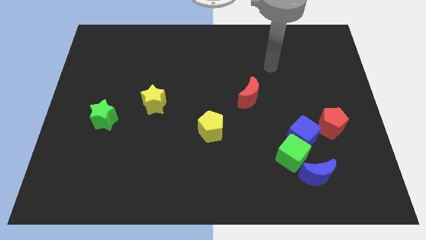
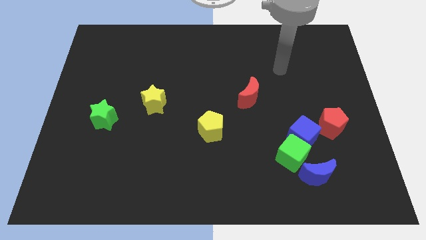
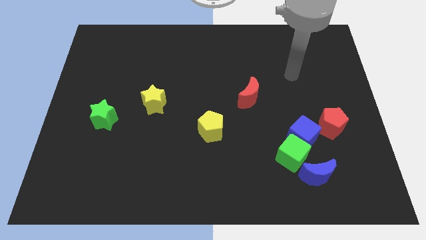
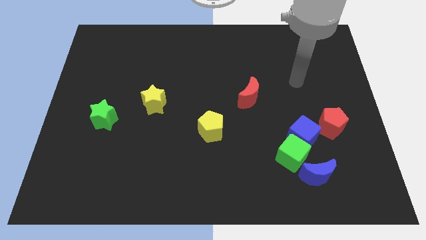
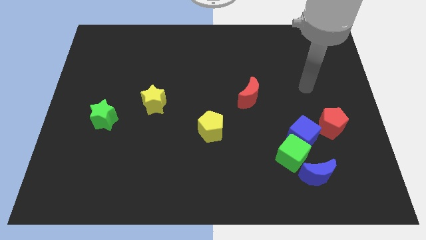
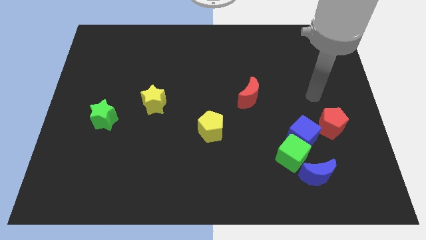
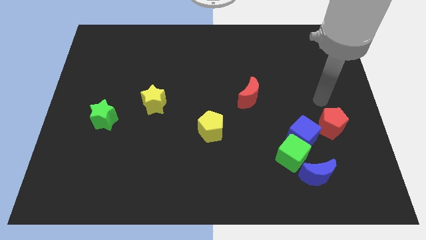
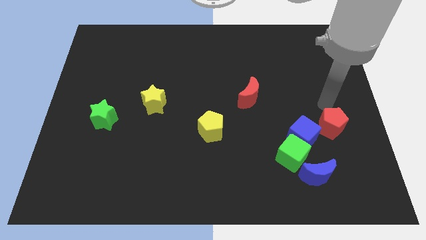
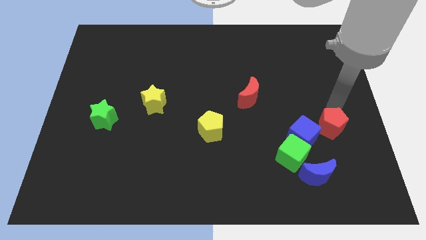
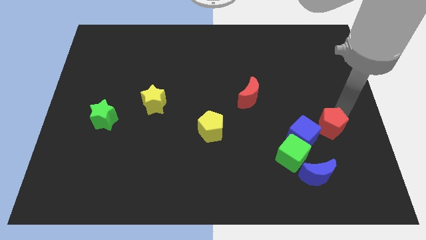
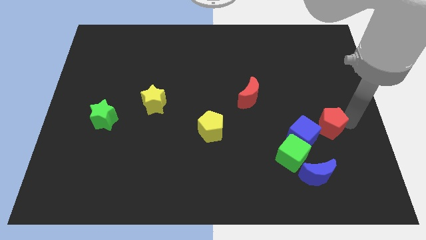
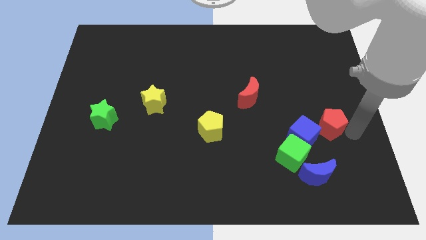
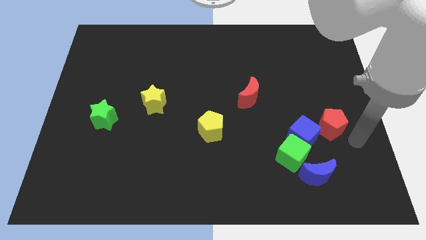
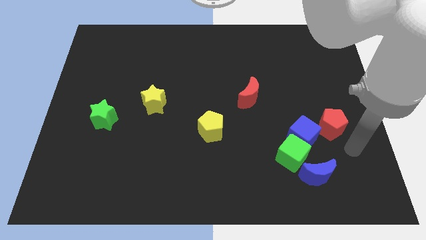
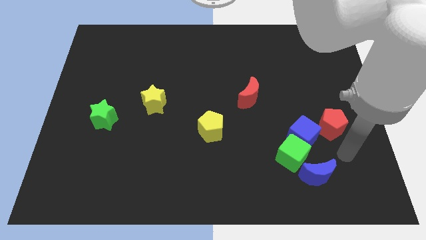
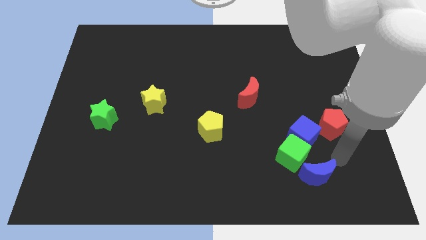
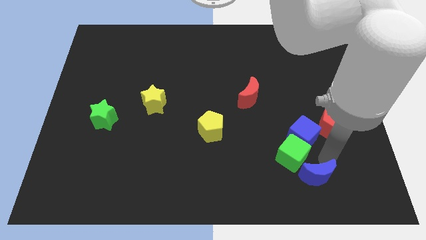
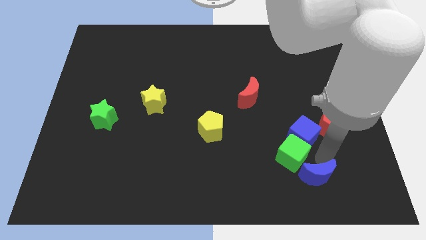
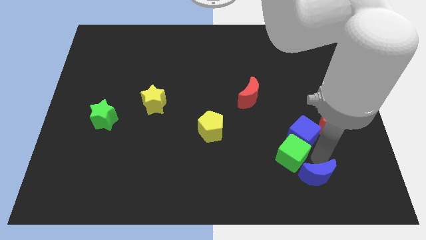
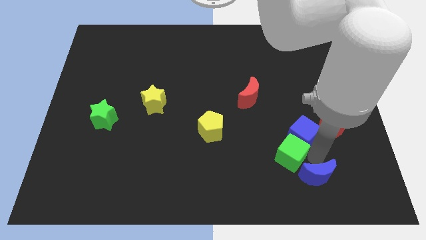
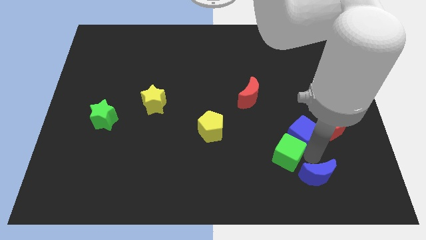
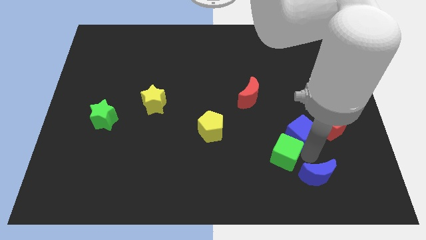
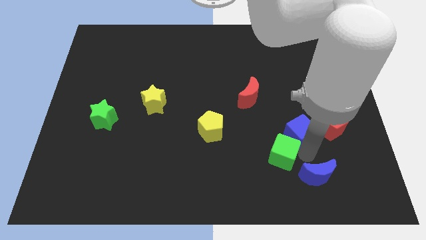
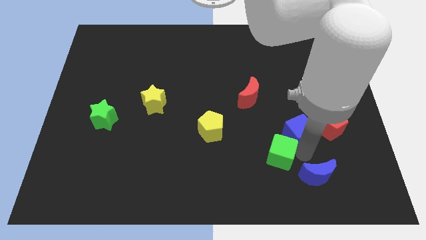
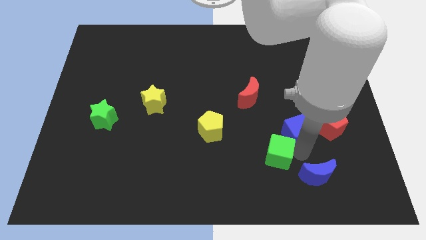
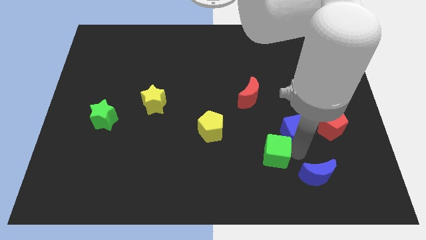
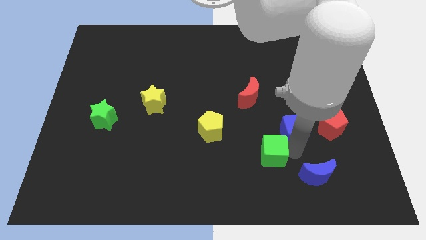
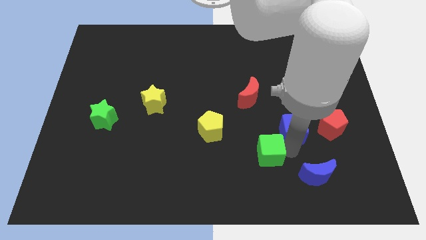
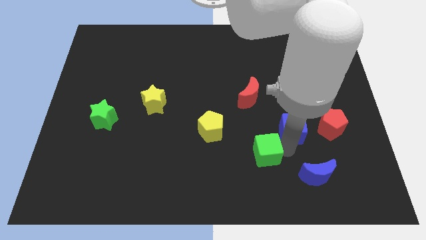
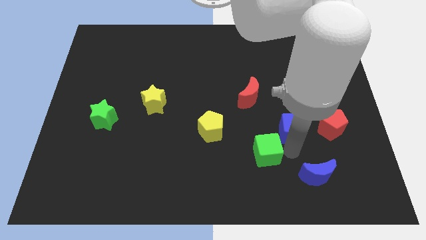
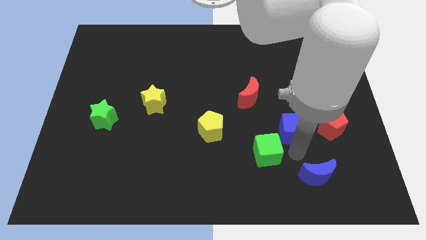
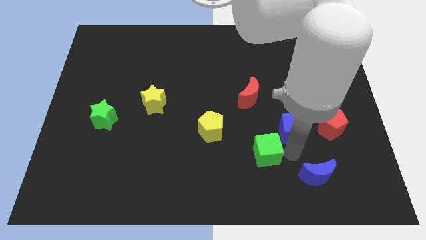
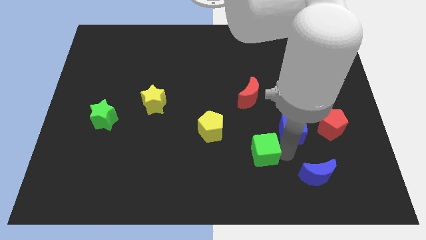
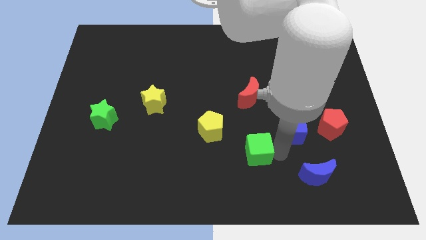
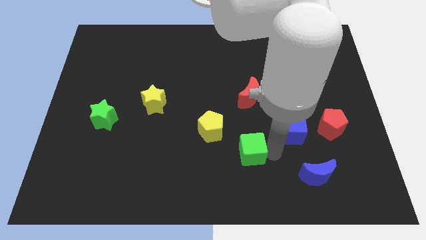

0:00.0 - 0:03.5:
pull the green cube apart from the blue cube and blue moon

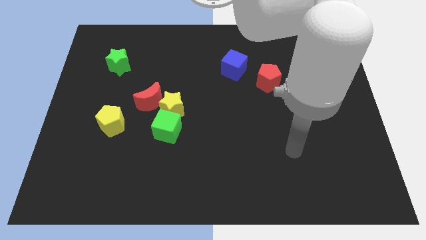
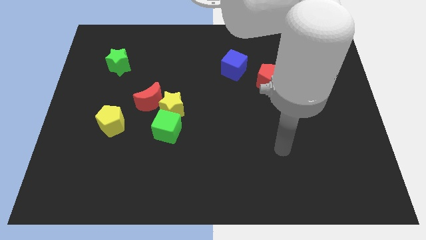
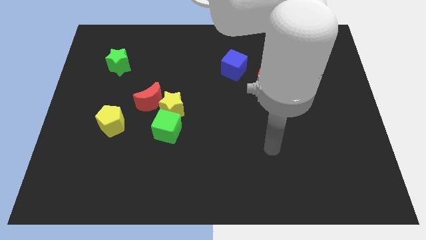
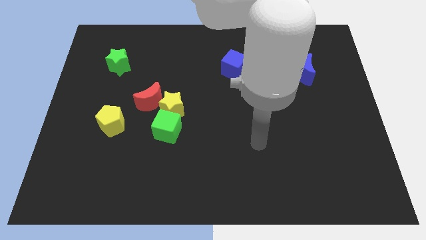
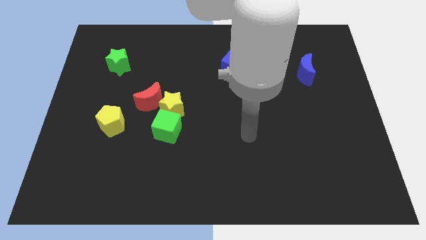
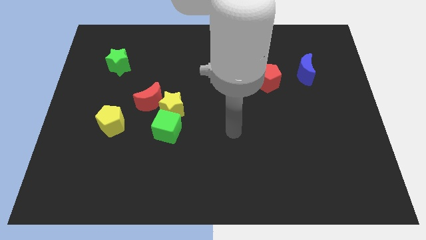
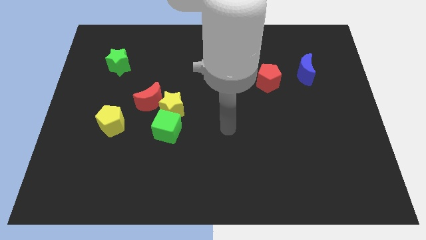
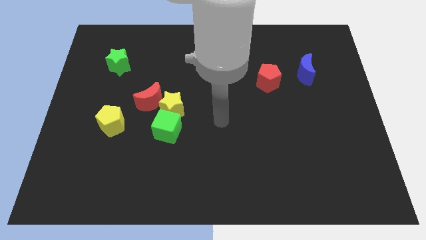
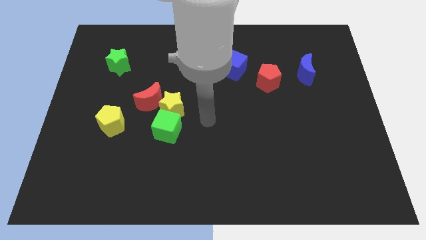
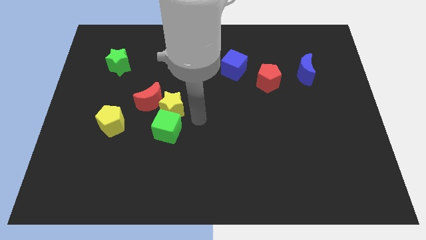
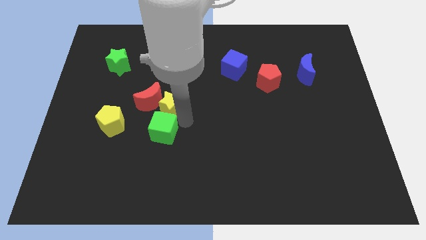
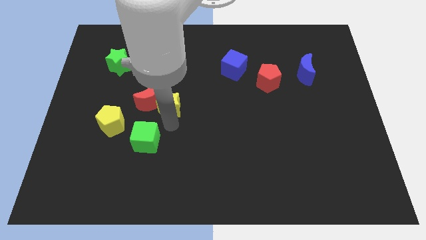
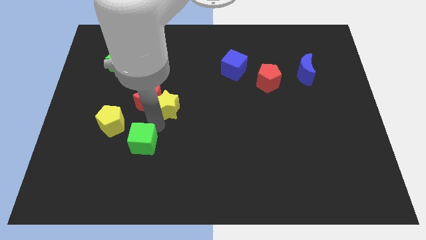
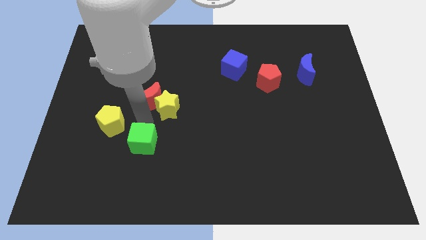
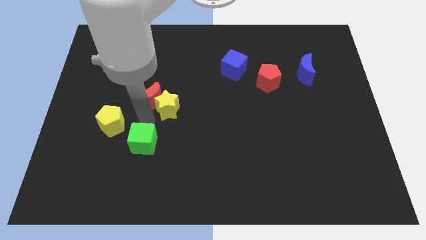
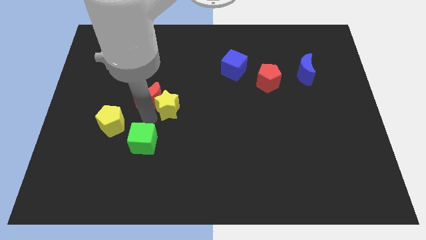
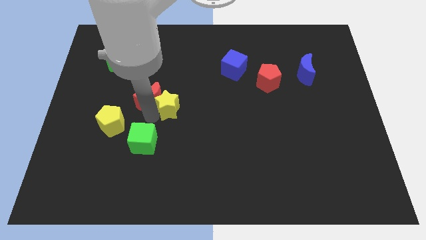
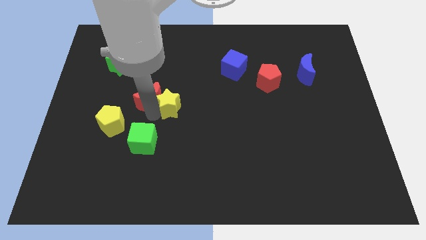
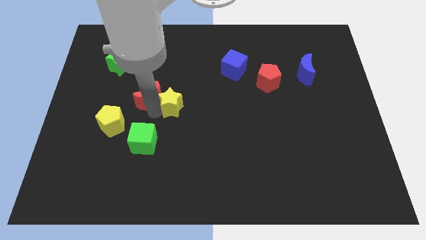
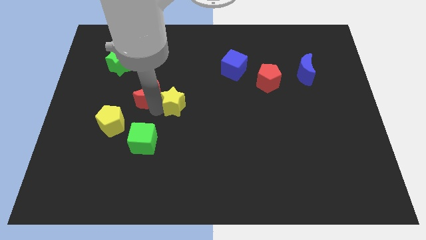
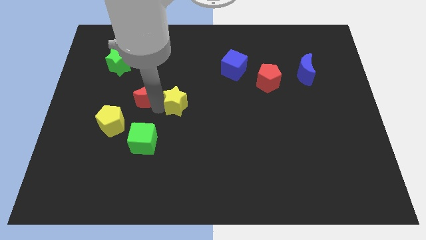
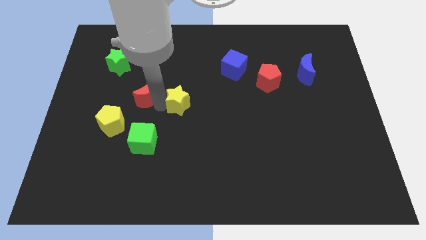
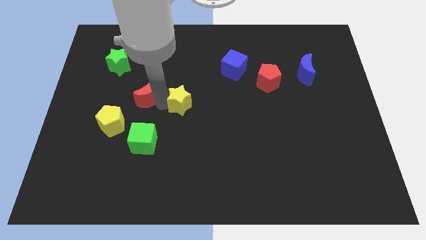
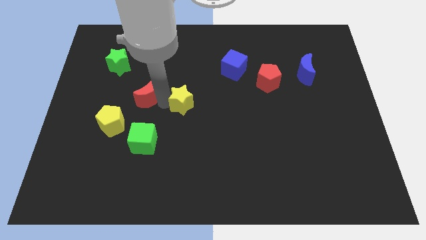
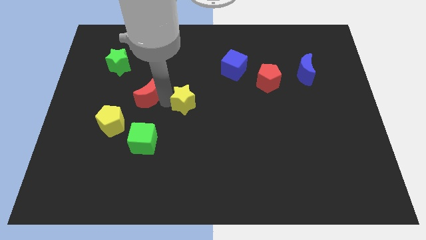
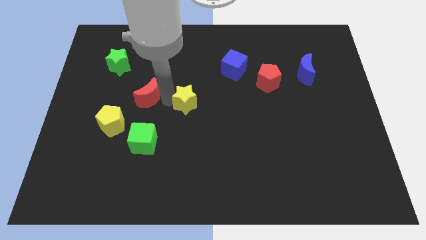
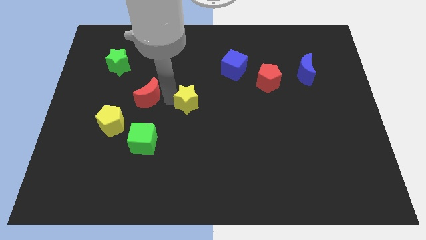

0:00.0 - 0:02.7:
pull the yellow star apart from the red moon and green cube

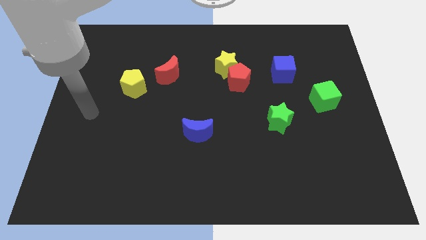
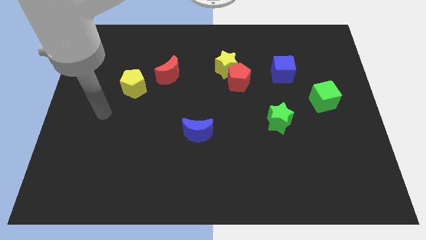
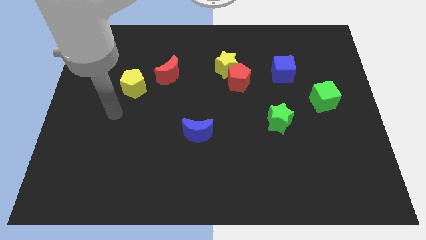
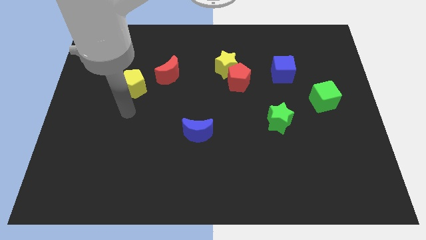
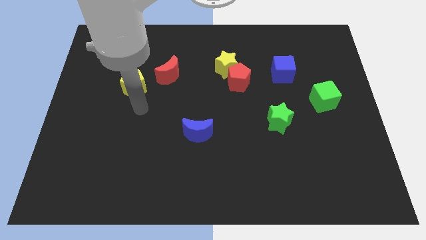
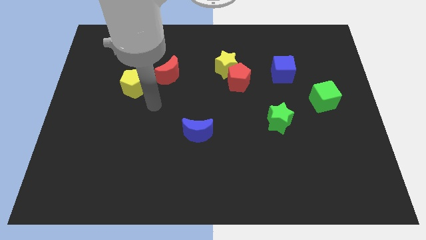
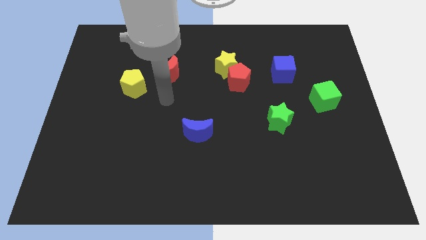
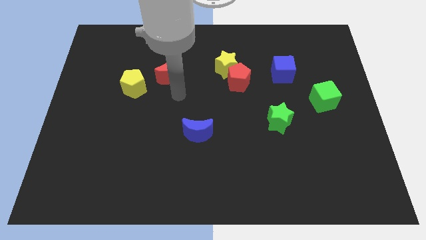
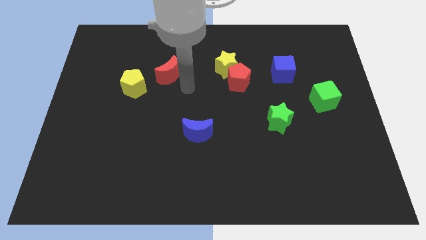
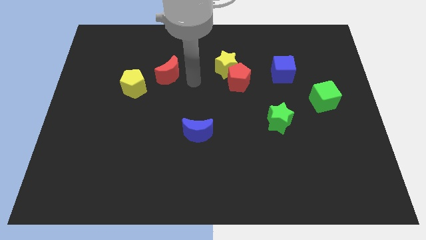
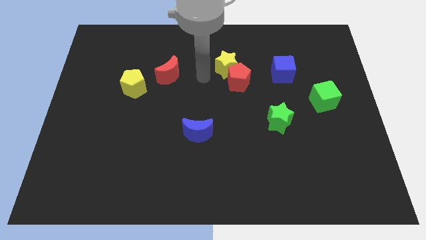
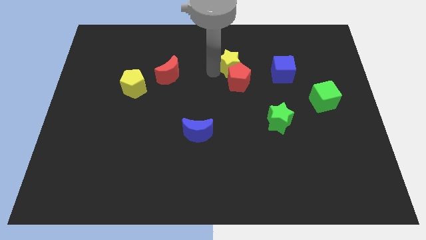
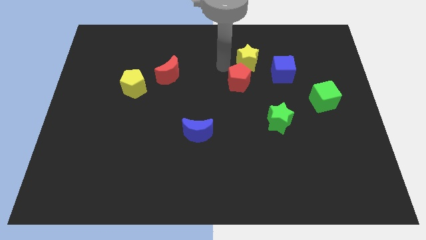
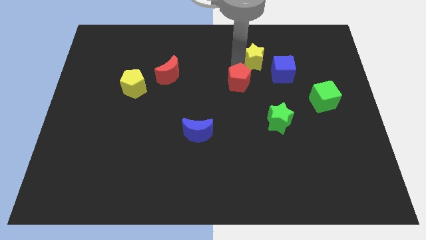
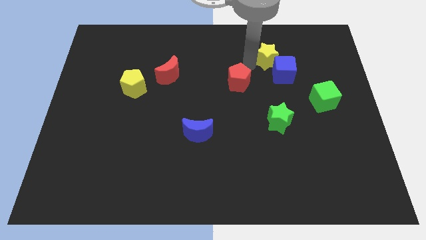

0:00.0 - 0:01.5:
pull the red pentagon apart from the yellow star

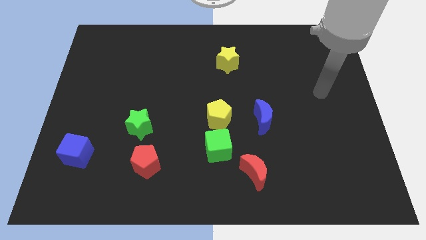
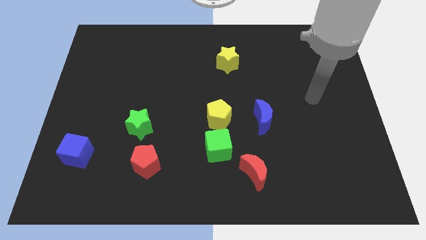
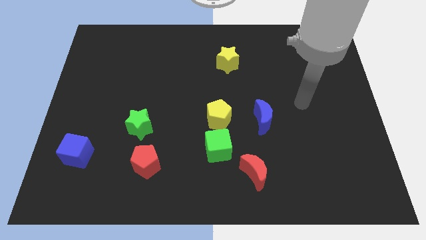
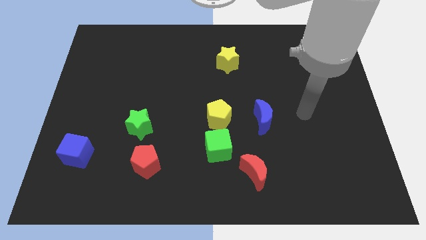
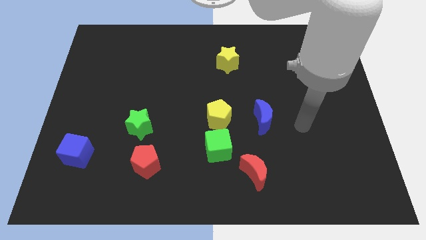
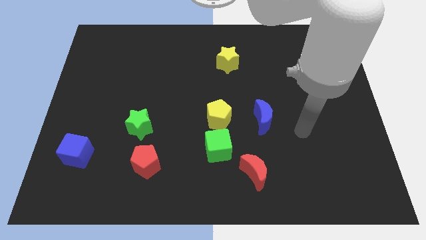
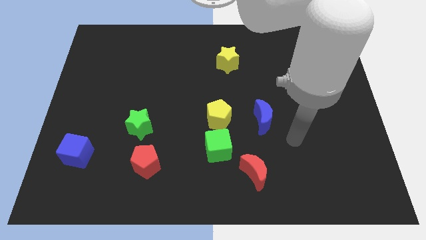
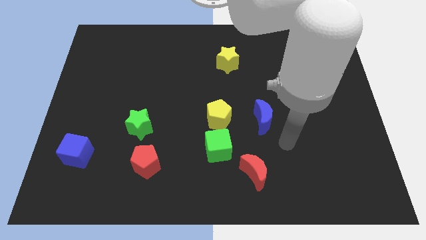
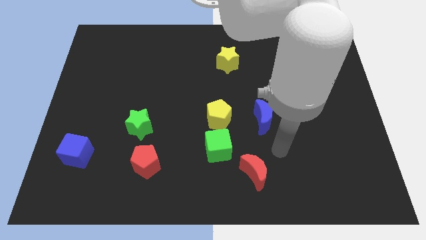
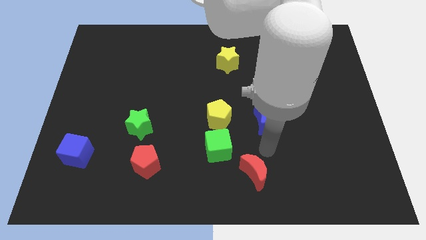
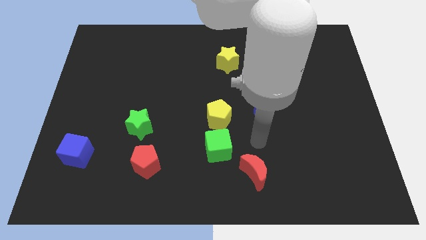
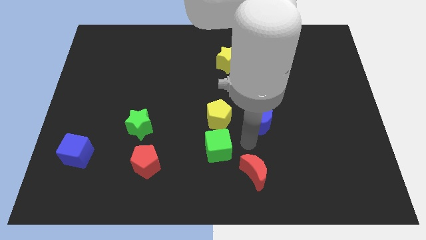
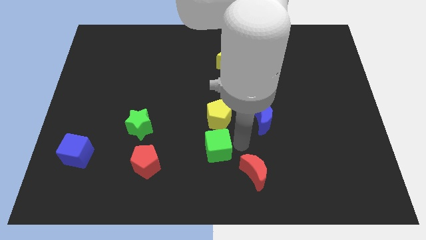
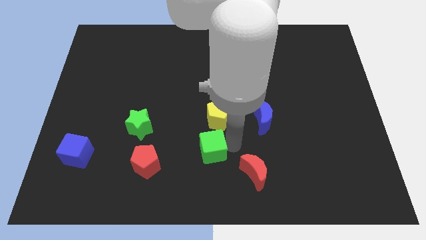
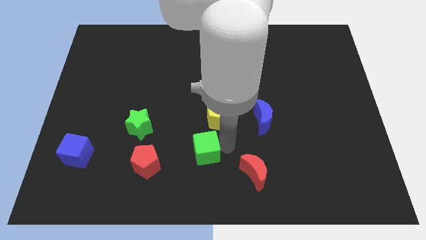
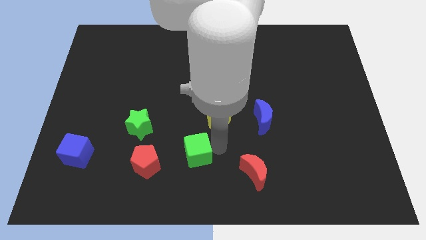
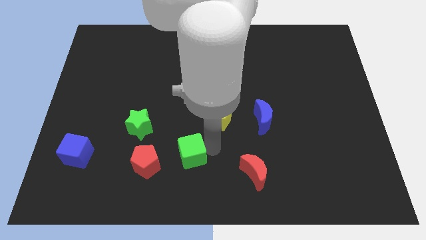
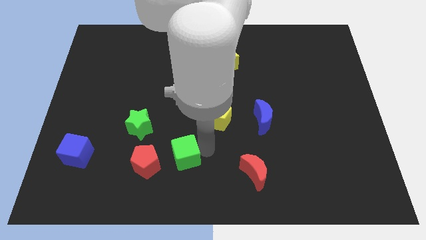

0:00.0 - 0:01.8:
move the green cube away from the yellow pentagon and red moon
